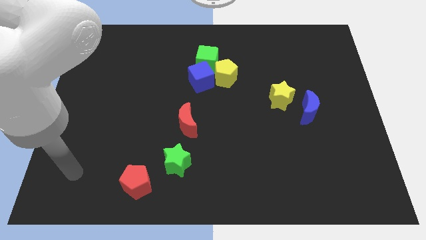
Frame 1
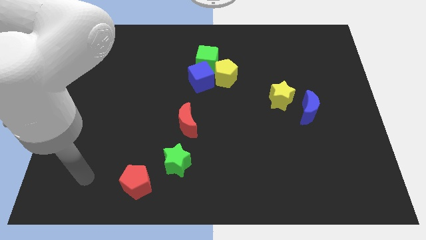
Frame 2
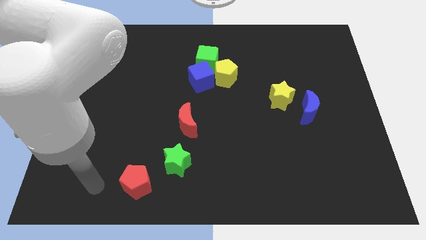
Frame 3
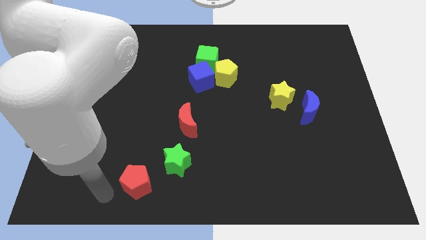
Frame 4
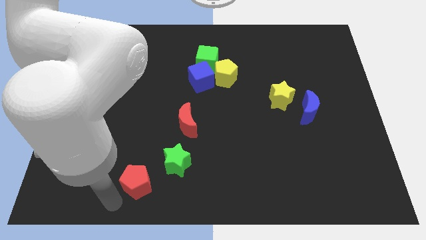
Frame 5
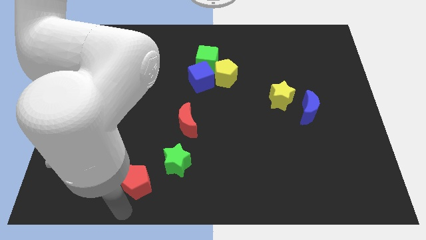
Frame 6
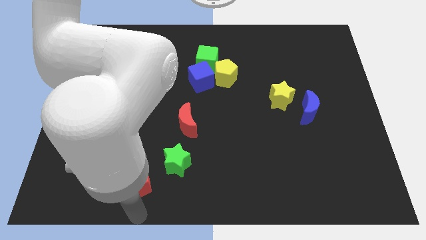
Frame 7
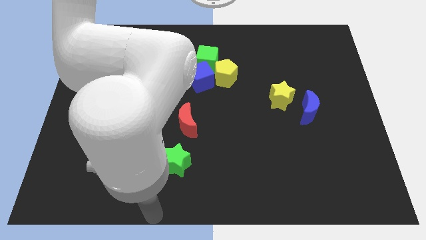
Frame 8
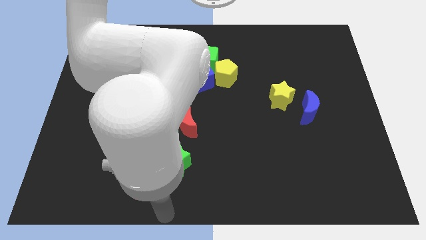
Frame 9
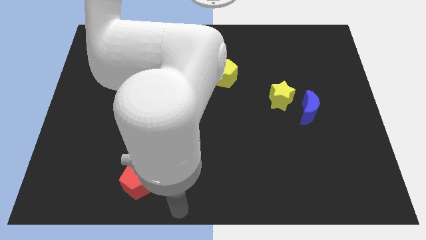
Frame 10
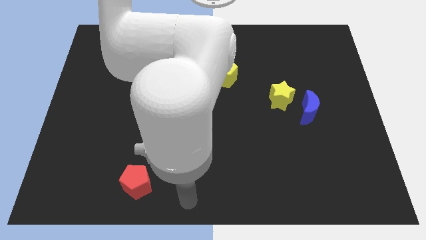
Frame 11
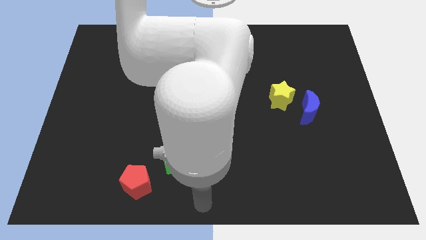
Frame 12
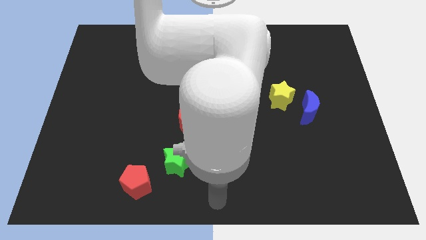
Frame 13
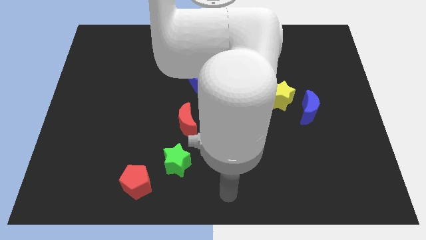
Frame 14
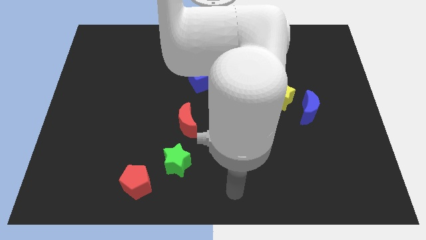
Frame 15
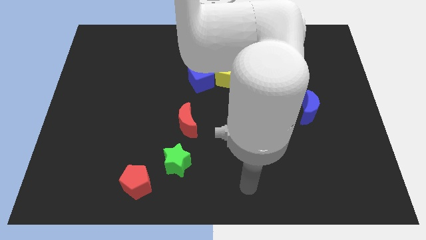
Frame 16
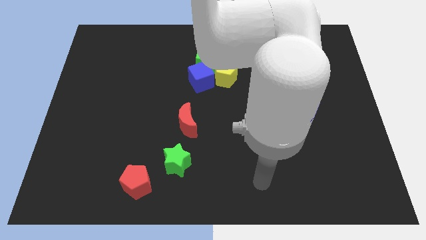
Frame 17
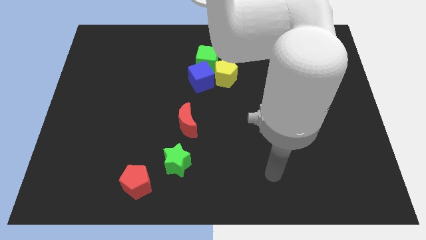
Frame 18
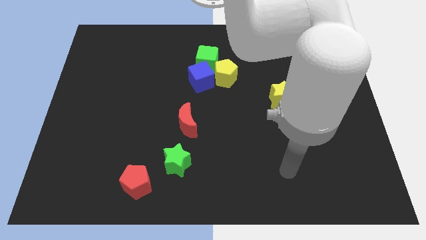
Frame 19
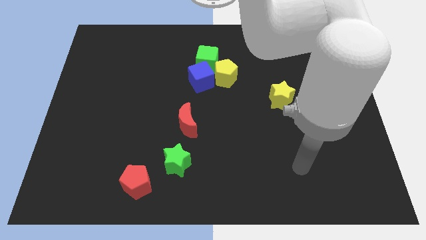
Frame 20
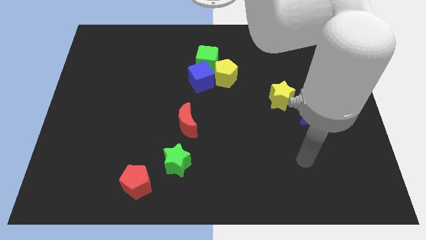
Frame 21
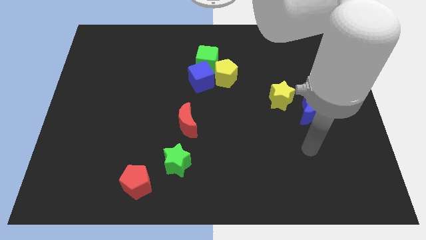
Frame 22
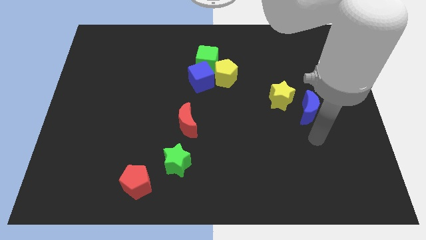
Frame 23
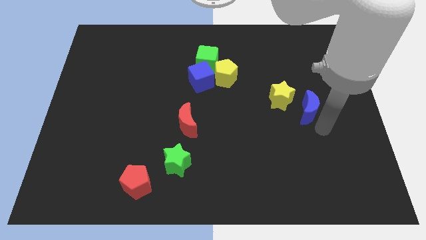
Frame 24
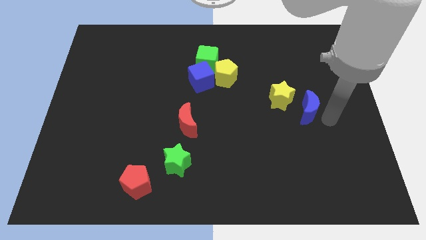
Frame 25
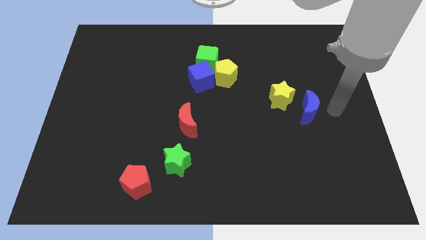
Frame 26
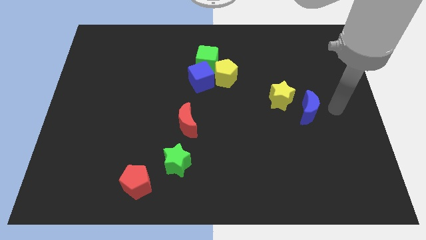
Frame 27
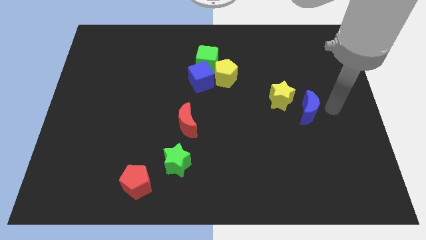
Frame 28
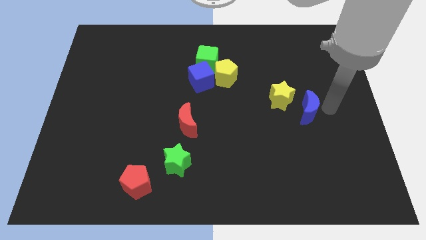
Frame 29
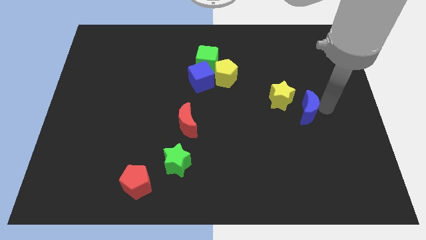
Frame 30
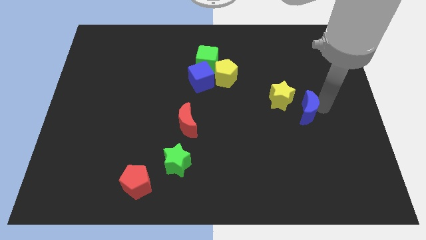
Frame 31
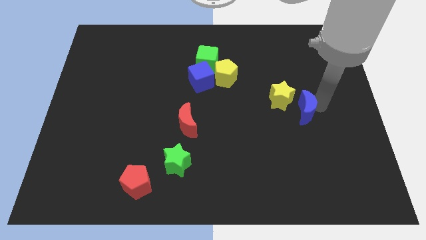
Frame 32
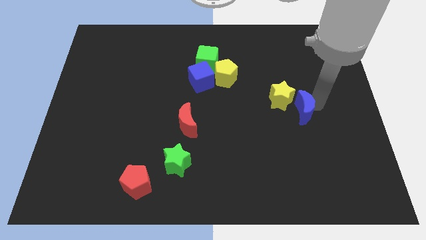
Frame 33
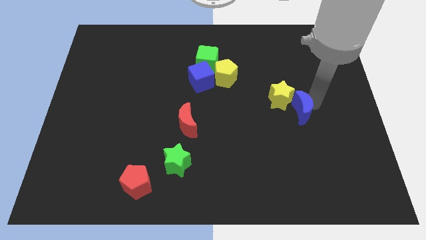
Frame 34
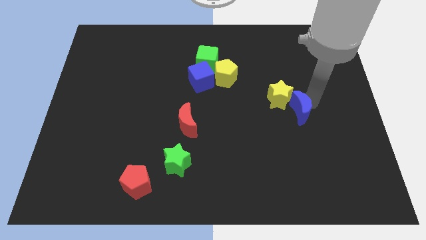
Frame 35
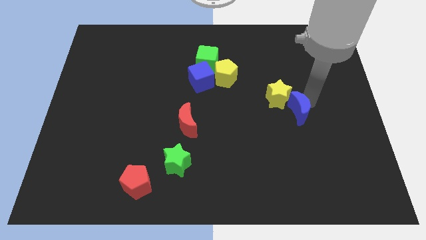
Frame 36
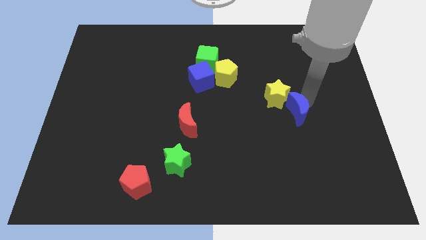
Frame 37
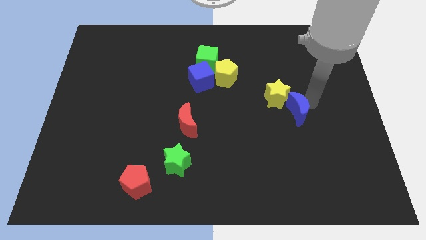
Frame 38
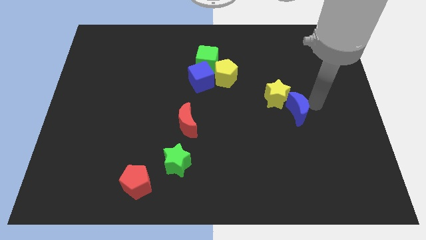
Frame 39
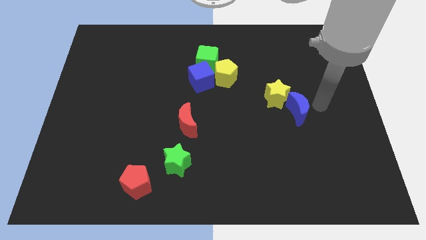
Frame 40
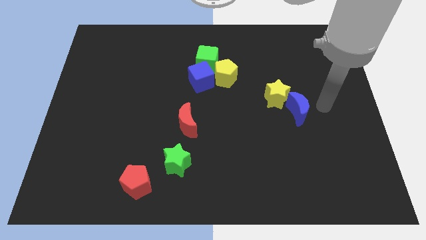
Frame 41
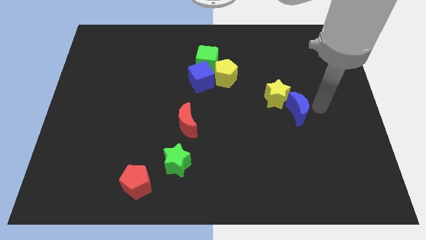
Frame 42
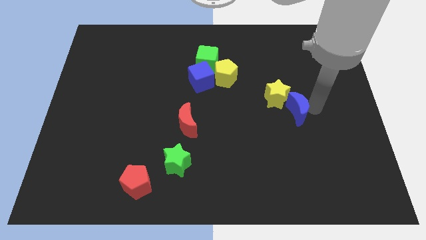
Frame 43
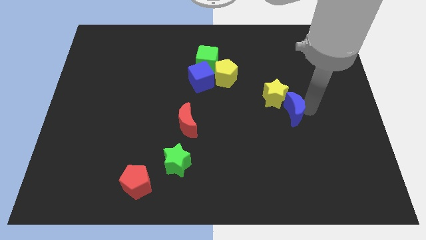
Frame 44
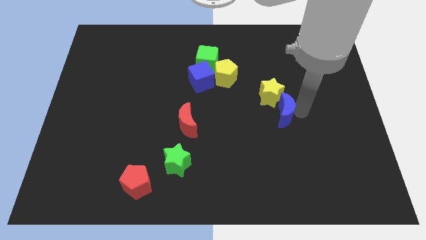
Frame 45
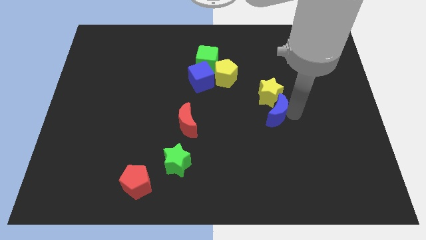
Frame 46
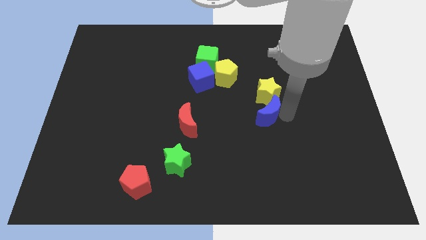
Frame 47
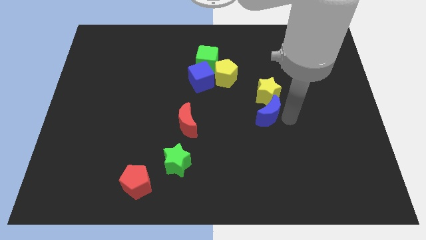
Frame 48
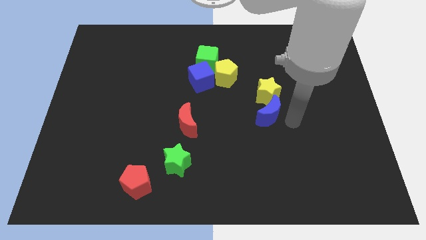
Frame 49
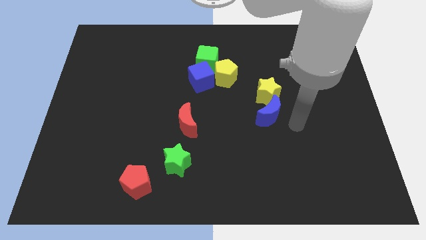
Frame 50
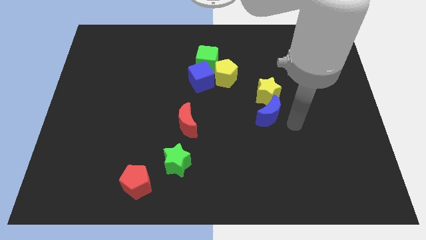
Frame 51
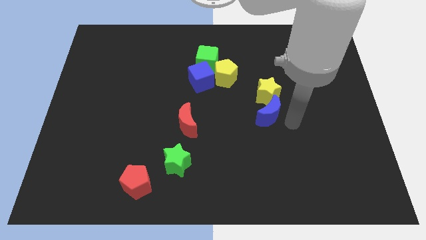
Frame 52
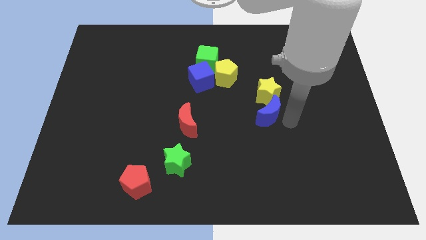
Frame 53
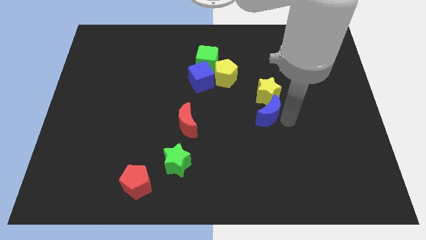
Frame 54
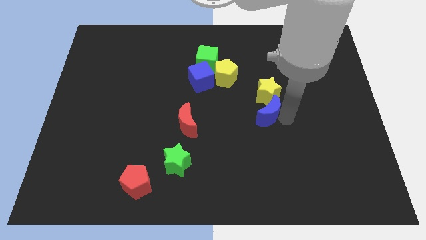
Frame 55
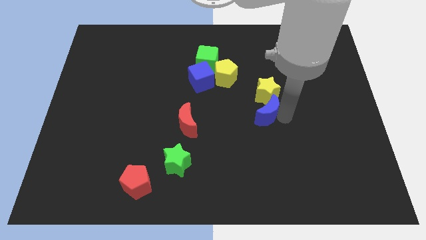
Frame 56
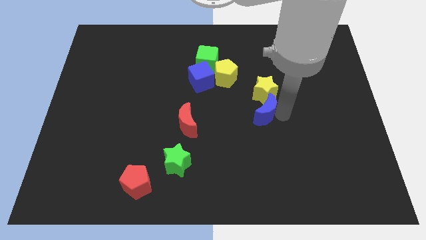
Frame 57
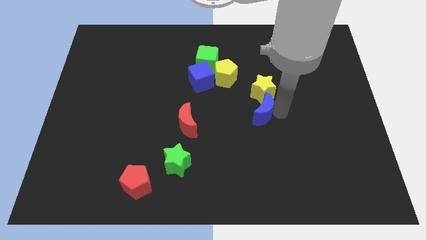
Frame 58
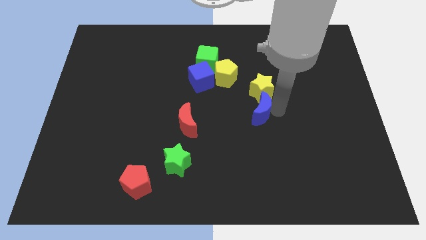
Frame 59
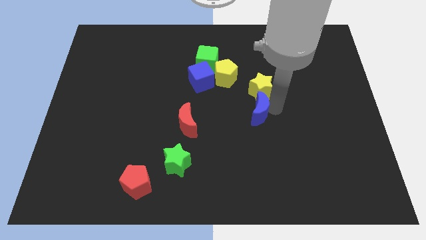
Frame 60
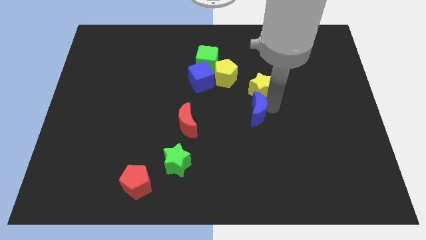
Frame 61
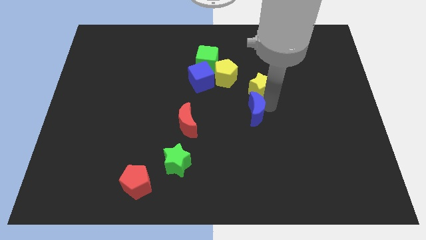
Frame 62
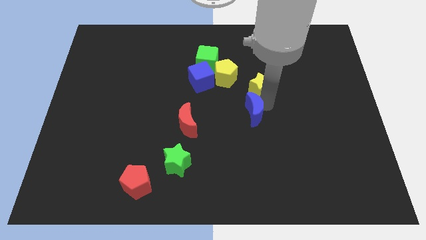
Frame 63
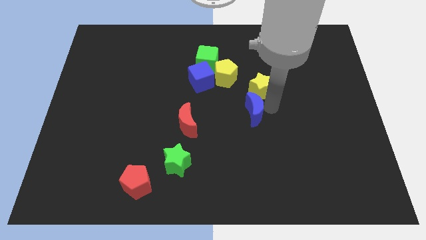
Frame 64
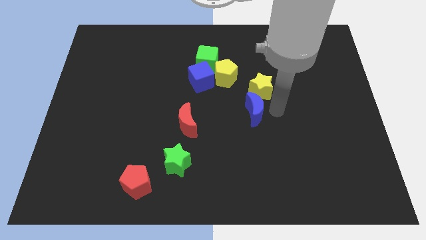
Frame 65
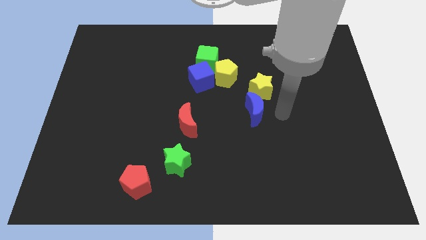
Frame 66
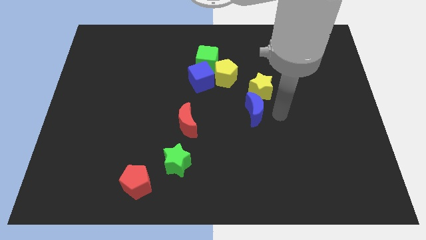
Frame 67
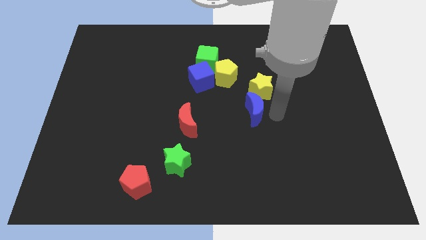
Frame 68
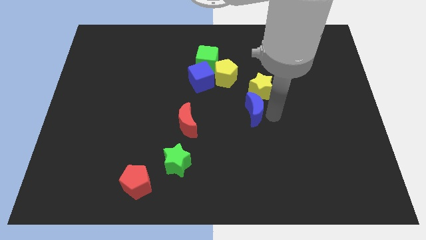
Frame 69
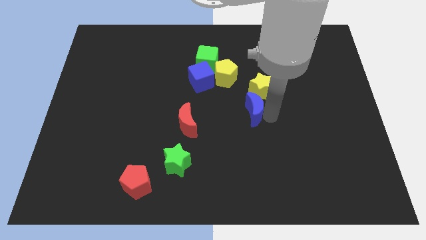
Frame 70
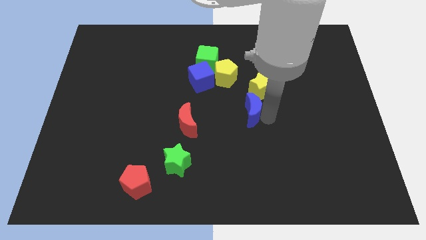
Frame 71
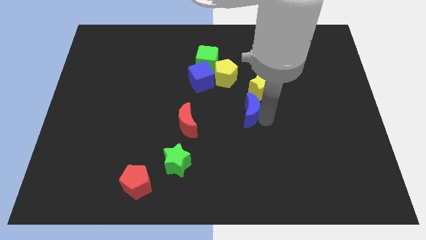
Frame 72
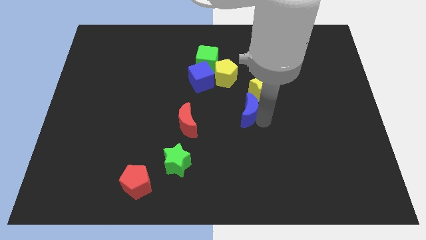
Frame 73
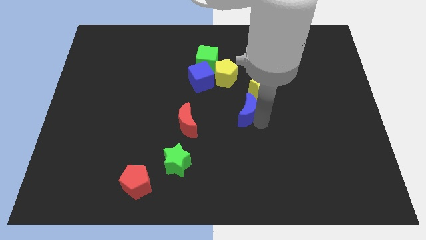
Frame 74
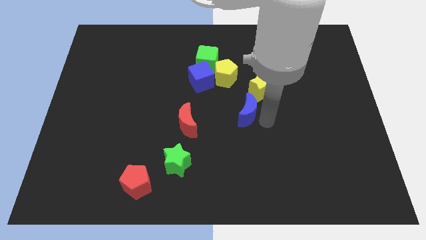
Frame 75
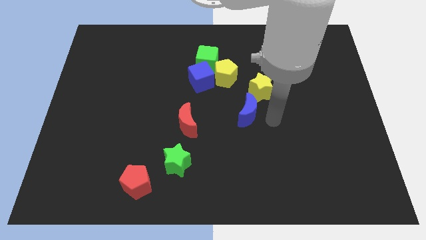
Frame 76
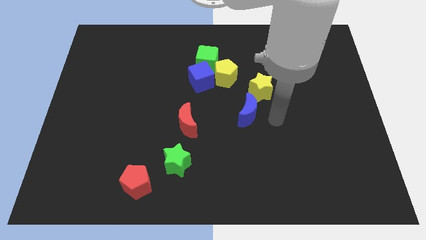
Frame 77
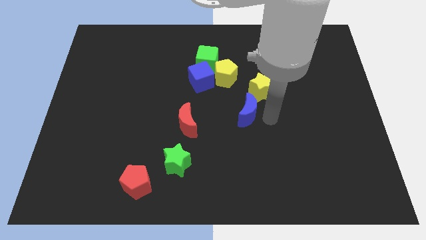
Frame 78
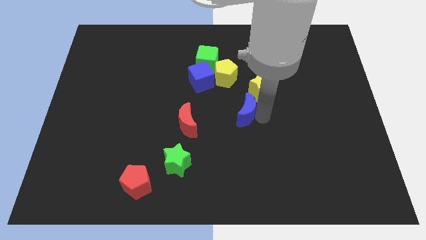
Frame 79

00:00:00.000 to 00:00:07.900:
move the blue moon below the yellow pentagon
